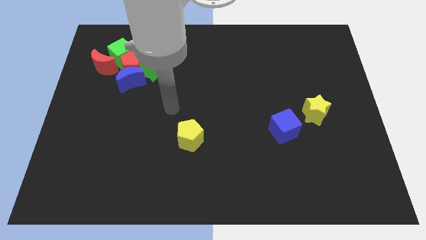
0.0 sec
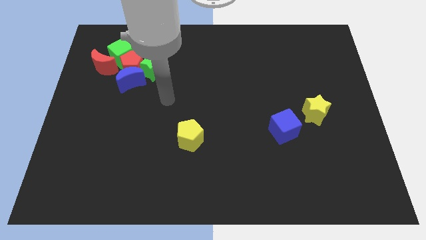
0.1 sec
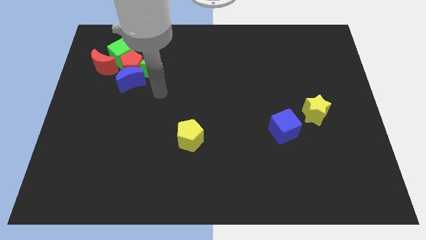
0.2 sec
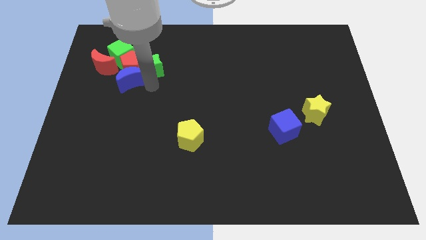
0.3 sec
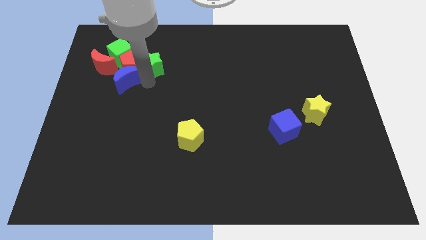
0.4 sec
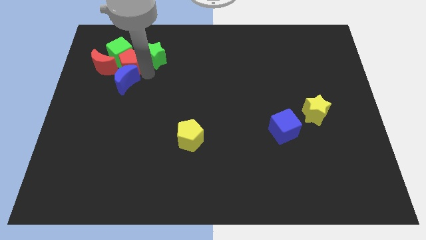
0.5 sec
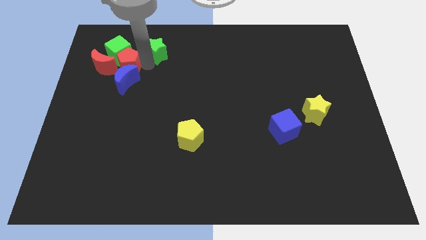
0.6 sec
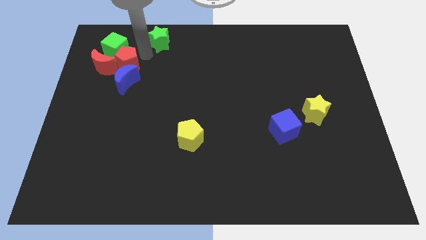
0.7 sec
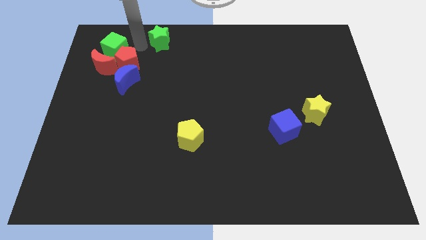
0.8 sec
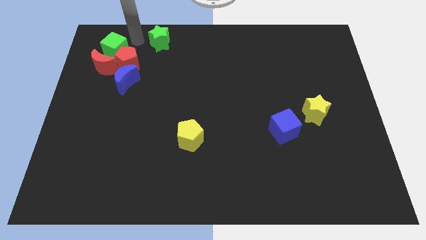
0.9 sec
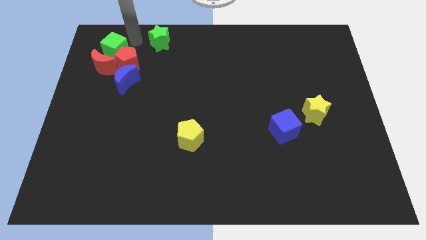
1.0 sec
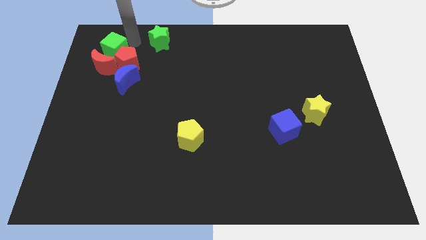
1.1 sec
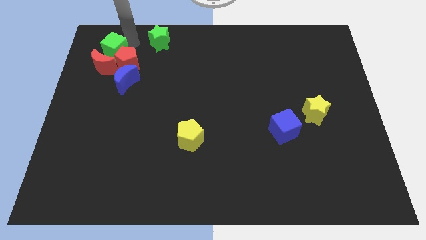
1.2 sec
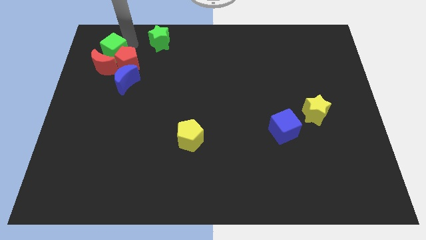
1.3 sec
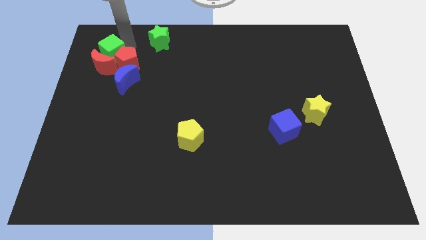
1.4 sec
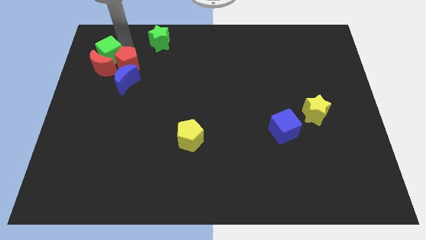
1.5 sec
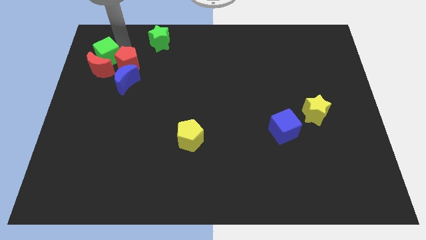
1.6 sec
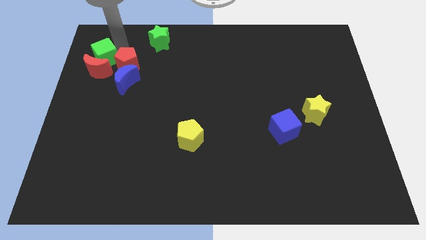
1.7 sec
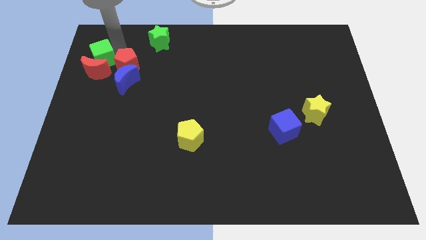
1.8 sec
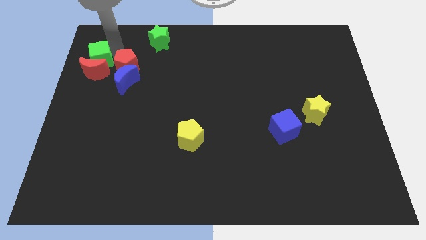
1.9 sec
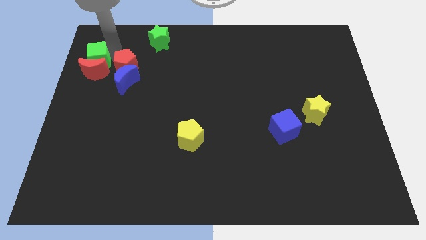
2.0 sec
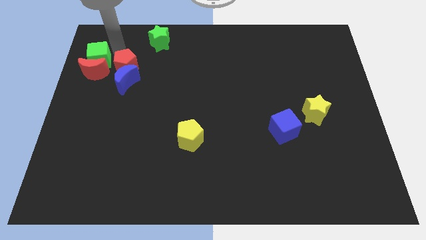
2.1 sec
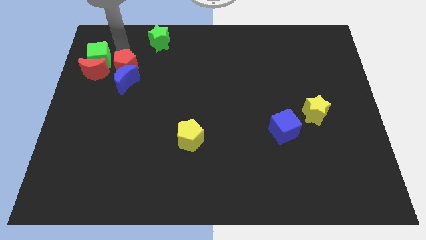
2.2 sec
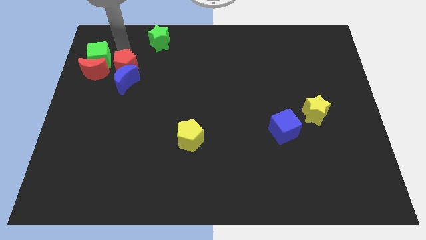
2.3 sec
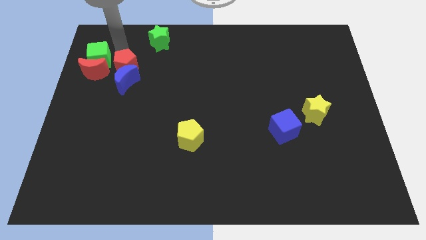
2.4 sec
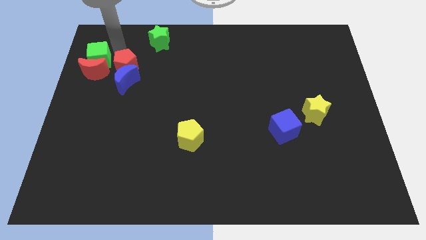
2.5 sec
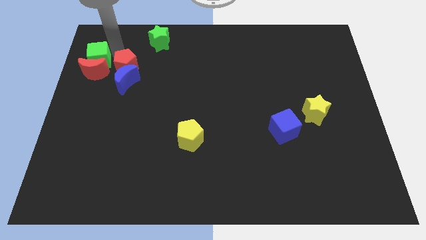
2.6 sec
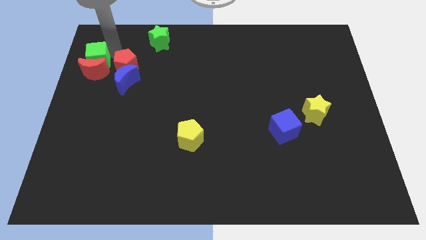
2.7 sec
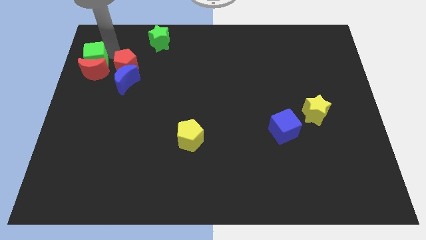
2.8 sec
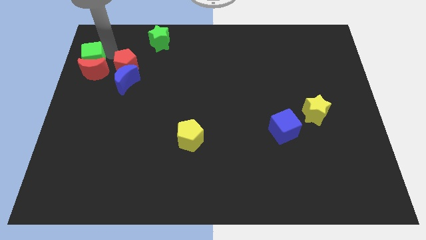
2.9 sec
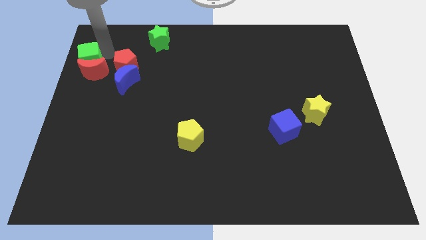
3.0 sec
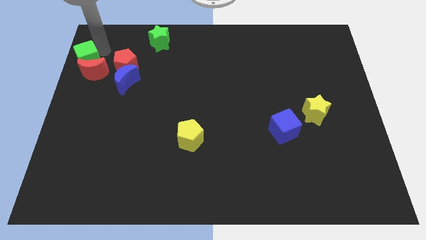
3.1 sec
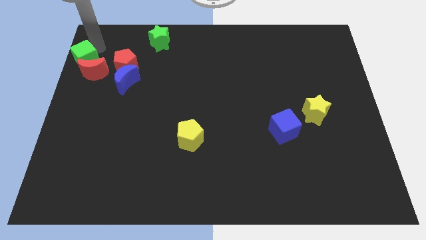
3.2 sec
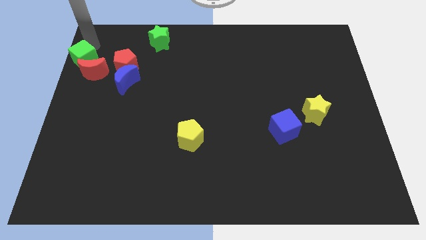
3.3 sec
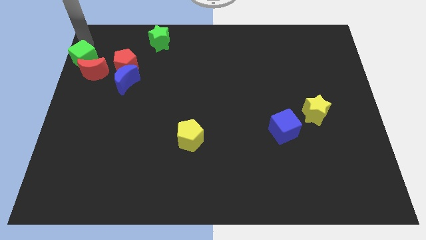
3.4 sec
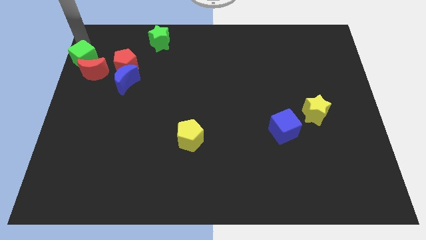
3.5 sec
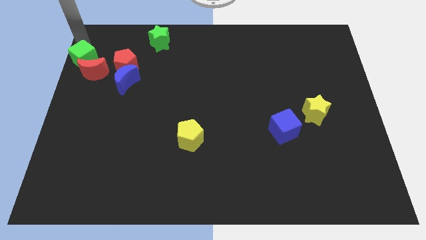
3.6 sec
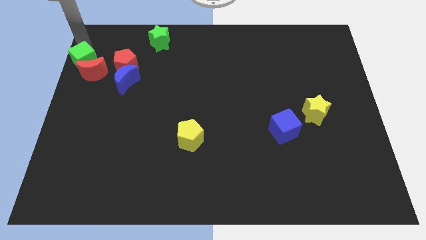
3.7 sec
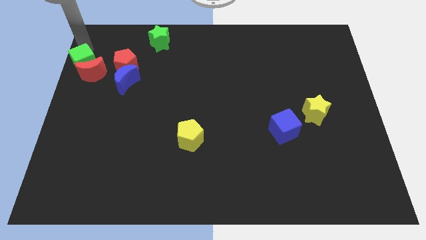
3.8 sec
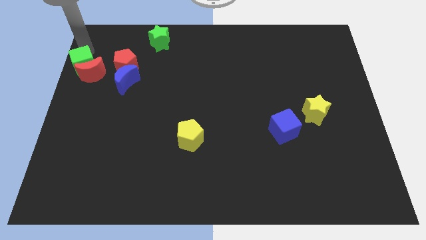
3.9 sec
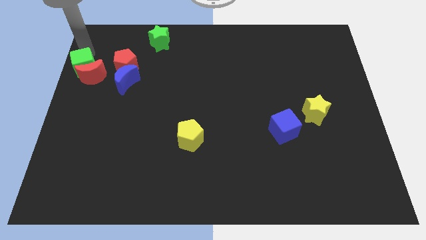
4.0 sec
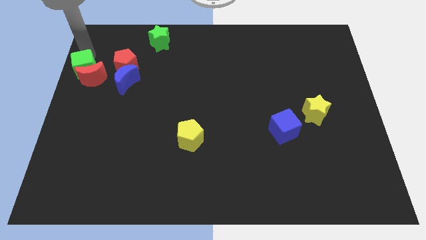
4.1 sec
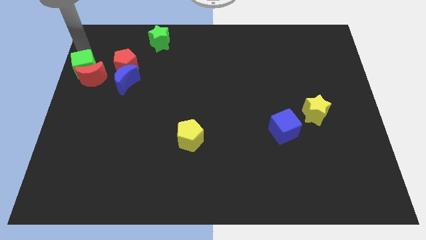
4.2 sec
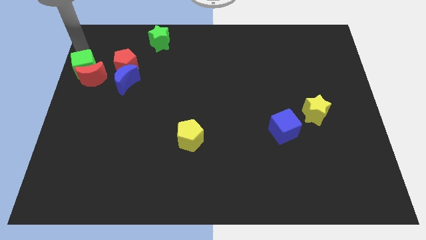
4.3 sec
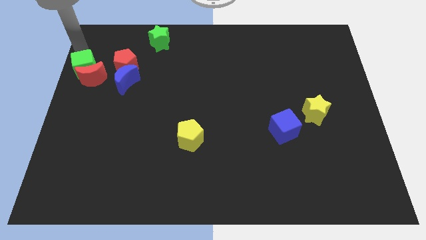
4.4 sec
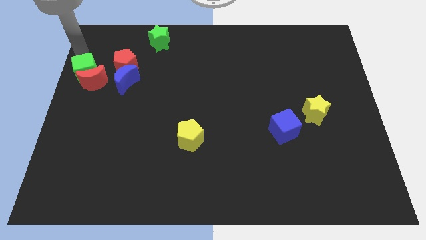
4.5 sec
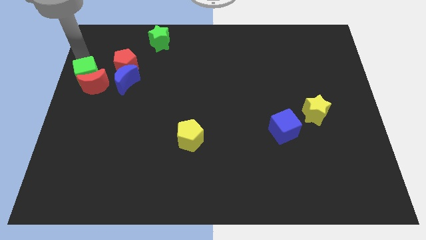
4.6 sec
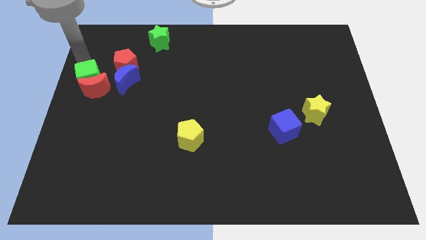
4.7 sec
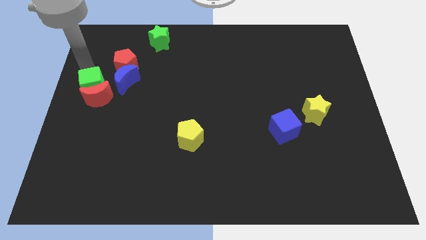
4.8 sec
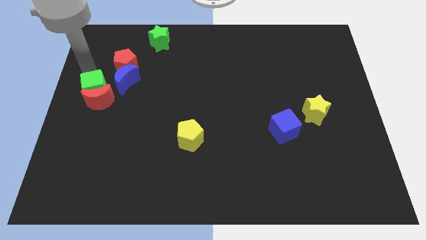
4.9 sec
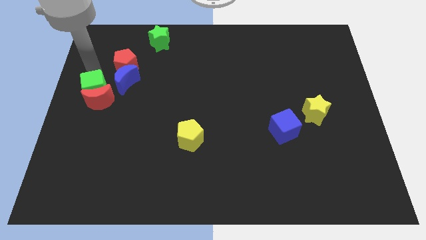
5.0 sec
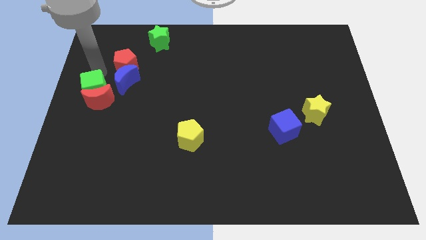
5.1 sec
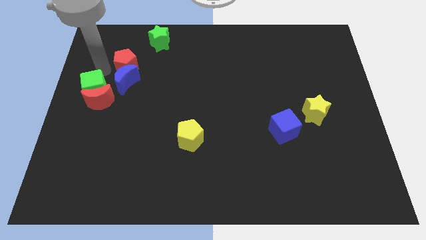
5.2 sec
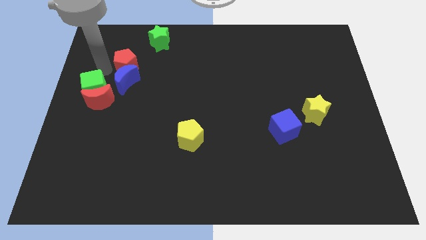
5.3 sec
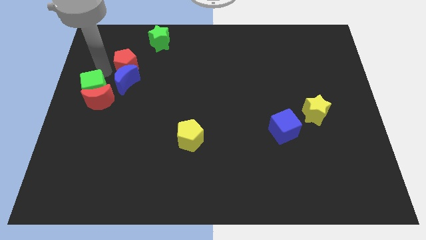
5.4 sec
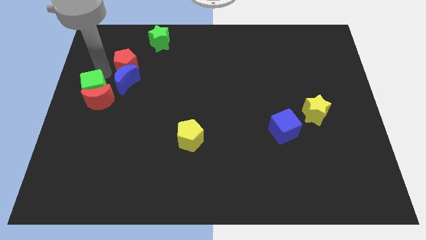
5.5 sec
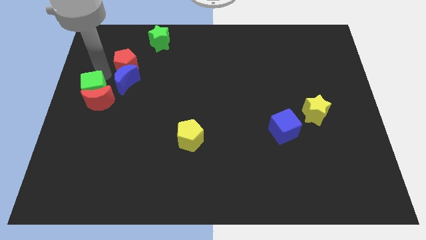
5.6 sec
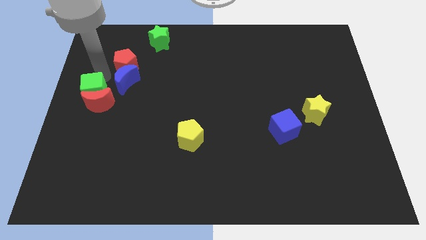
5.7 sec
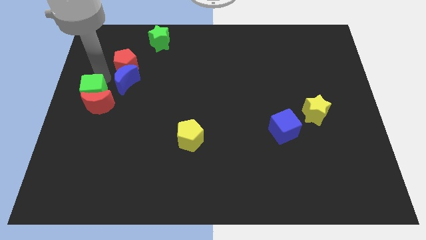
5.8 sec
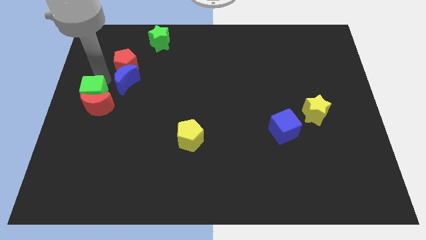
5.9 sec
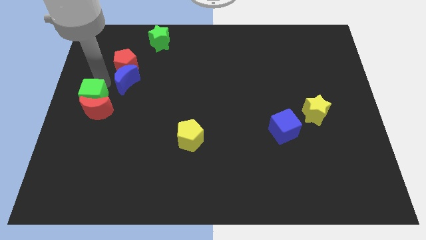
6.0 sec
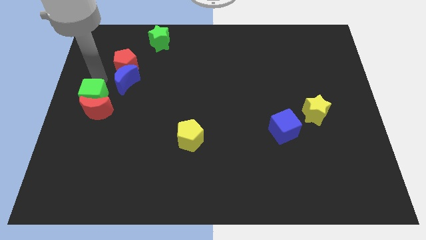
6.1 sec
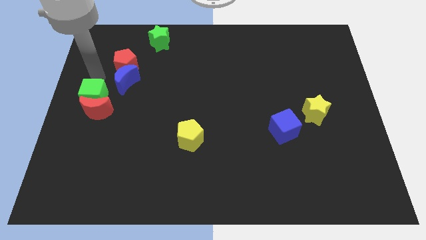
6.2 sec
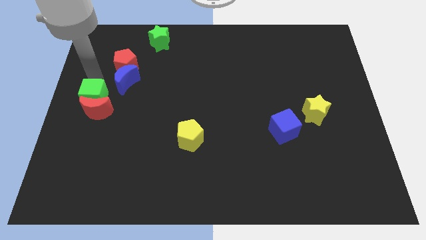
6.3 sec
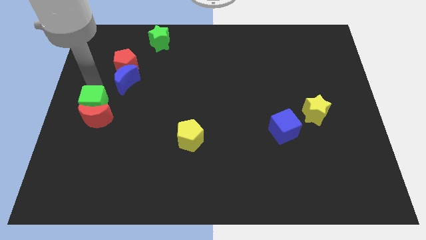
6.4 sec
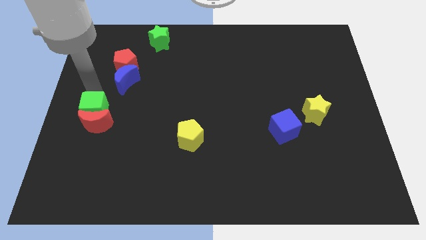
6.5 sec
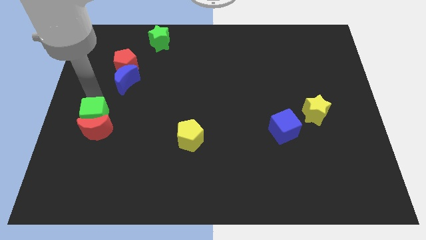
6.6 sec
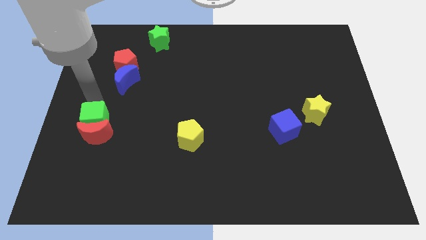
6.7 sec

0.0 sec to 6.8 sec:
slide the green cube down

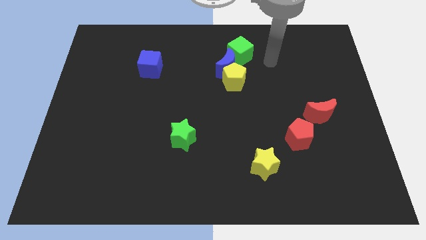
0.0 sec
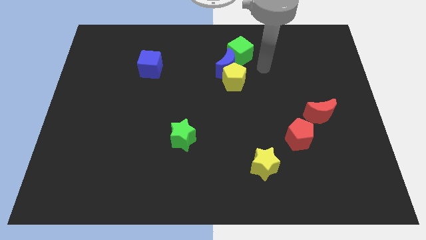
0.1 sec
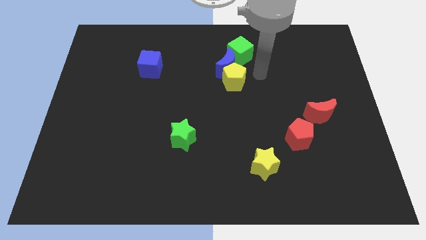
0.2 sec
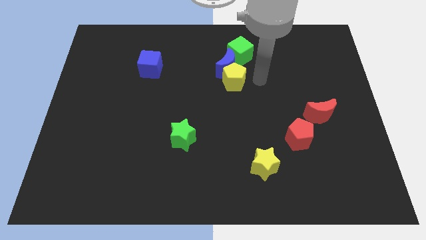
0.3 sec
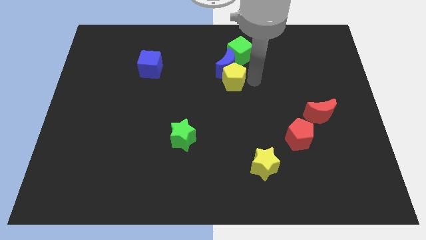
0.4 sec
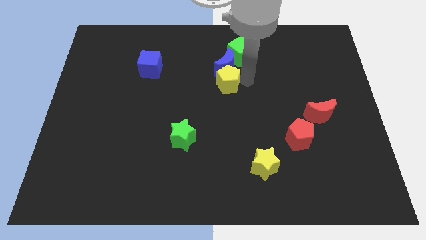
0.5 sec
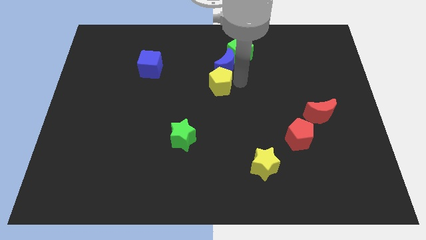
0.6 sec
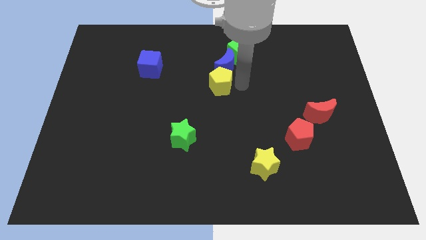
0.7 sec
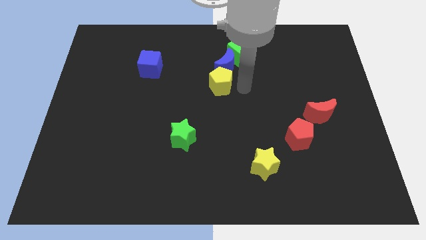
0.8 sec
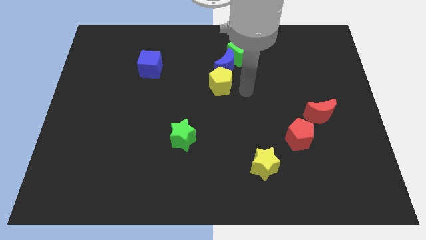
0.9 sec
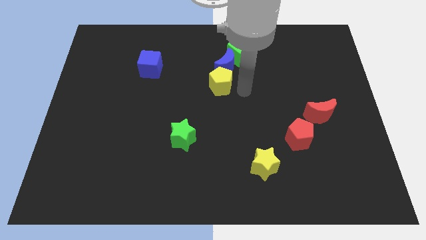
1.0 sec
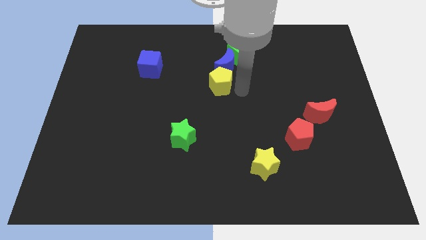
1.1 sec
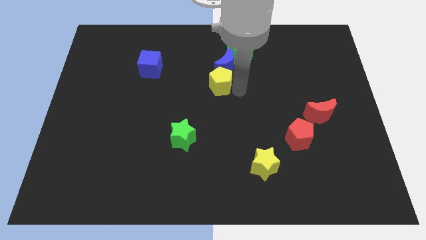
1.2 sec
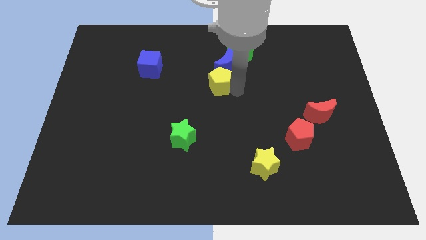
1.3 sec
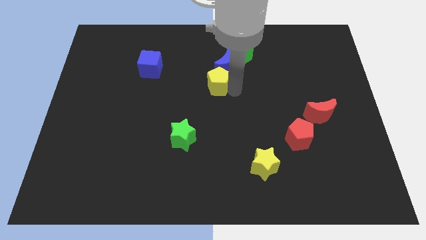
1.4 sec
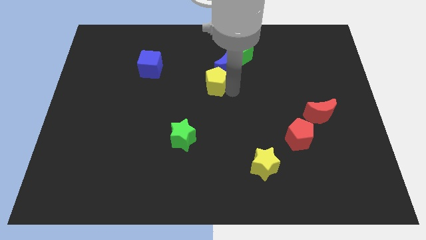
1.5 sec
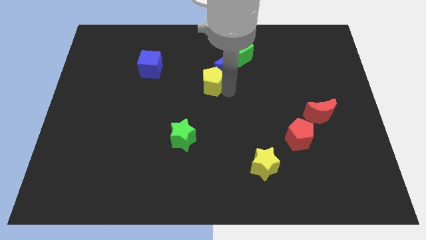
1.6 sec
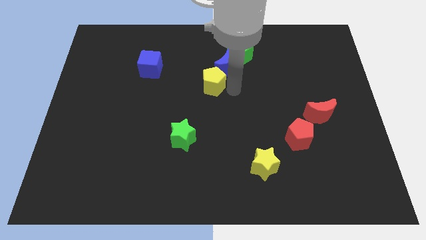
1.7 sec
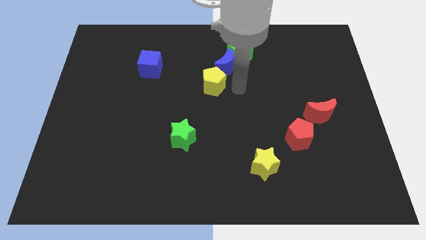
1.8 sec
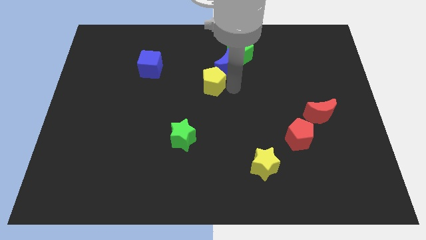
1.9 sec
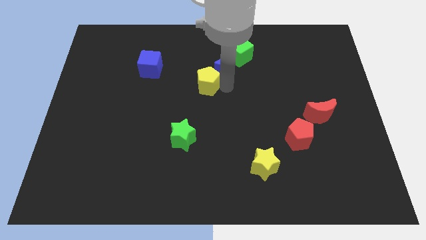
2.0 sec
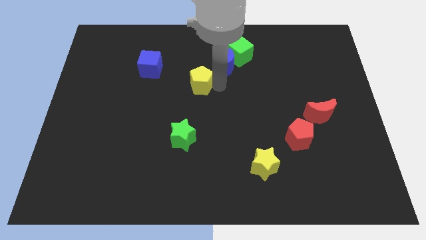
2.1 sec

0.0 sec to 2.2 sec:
slightly move the yellow pentagon to the left
